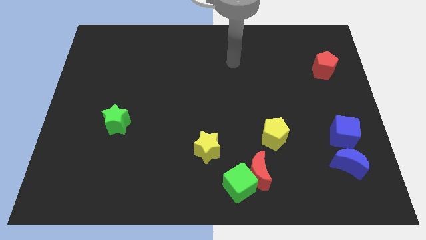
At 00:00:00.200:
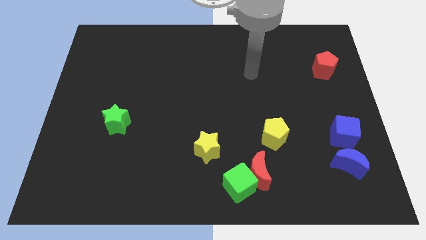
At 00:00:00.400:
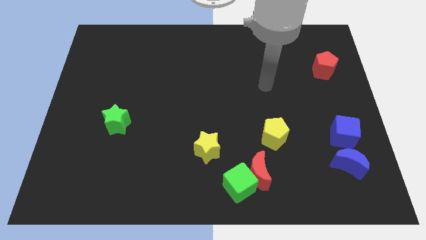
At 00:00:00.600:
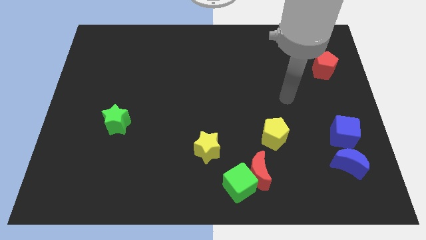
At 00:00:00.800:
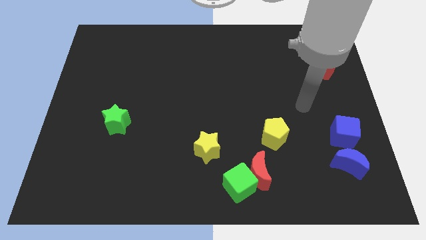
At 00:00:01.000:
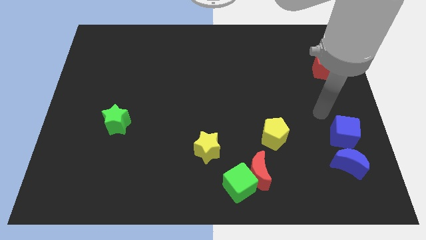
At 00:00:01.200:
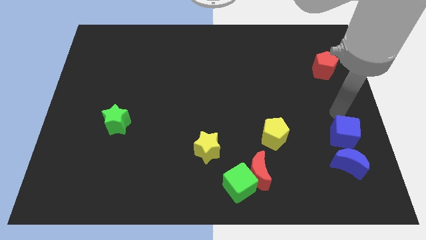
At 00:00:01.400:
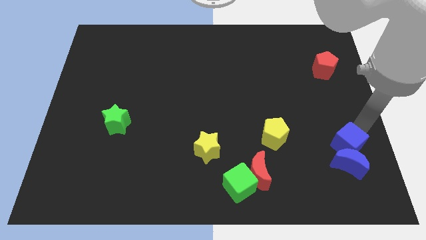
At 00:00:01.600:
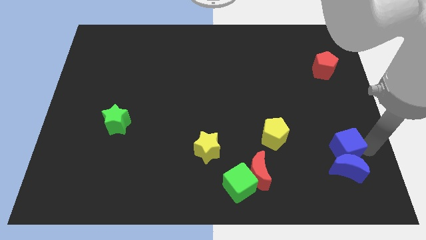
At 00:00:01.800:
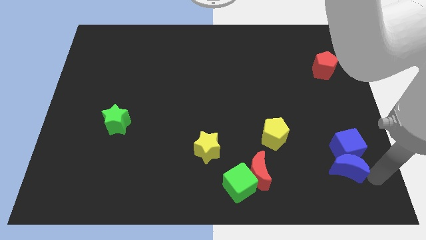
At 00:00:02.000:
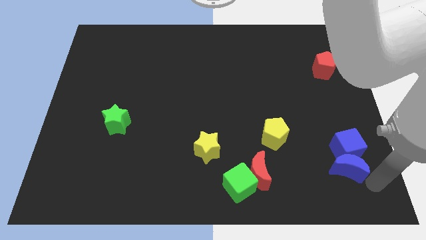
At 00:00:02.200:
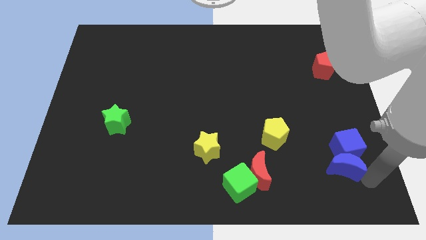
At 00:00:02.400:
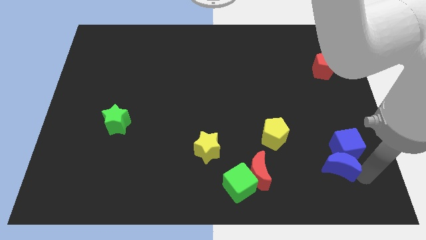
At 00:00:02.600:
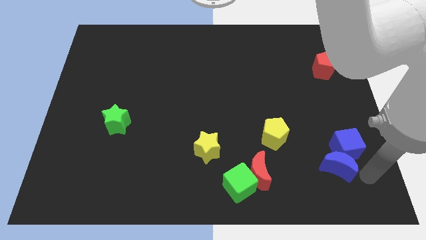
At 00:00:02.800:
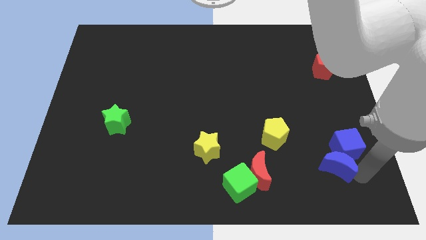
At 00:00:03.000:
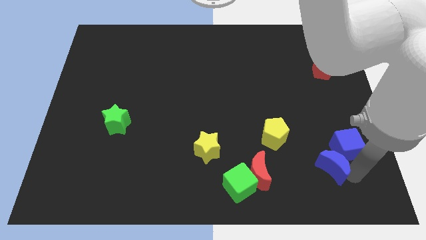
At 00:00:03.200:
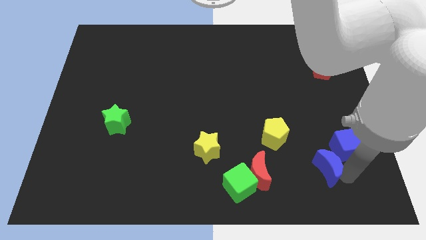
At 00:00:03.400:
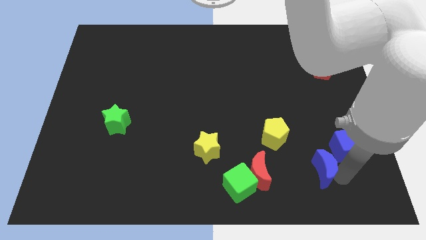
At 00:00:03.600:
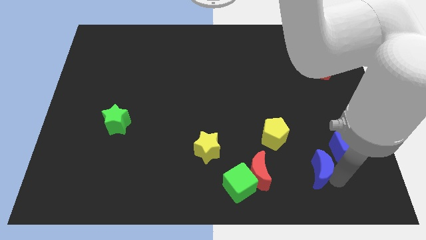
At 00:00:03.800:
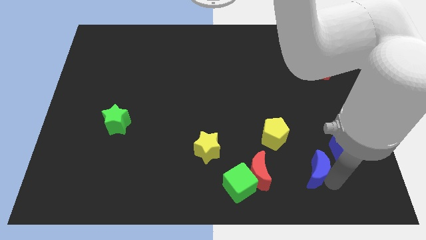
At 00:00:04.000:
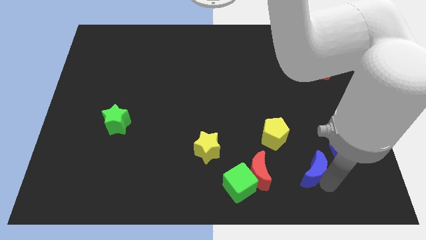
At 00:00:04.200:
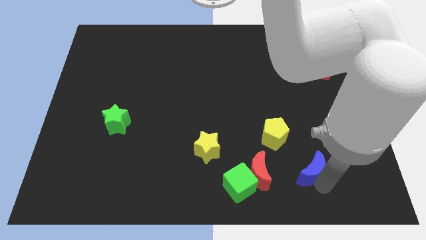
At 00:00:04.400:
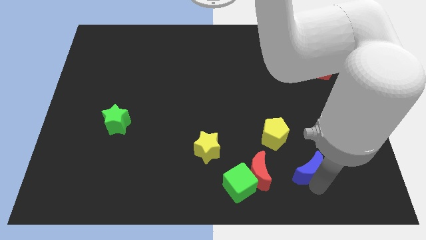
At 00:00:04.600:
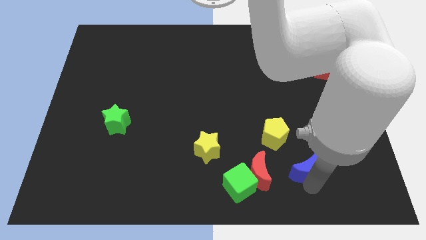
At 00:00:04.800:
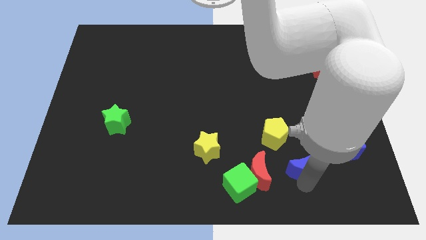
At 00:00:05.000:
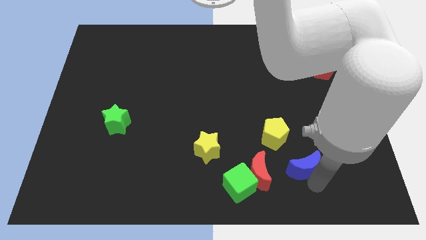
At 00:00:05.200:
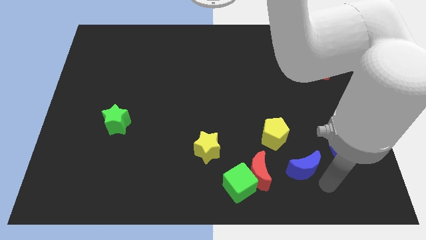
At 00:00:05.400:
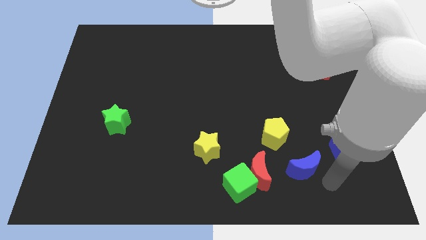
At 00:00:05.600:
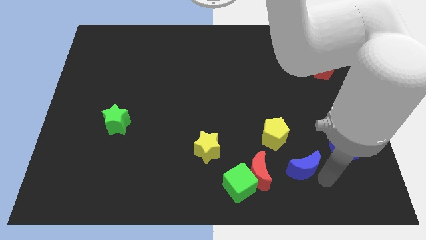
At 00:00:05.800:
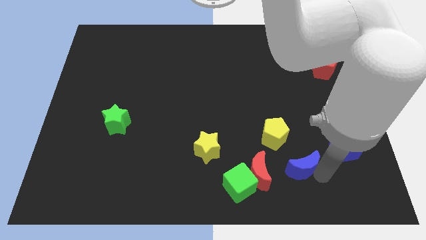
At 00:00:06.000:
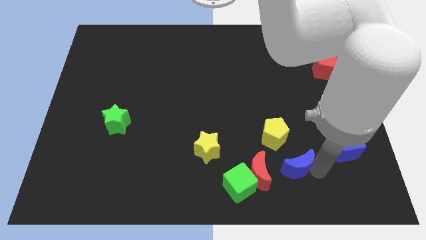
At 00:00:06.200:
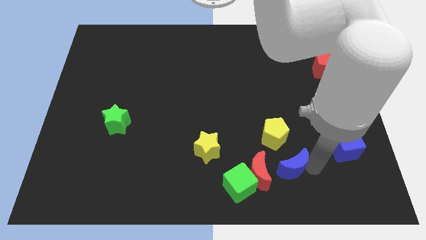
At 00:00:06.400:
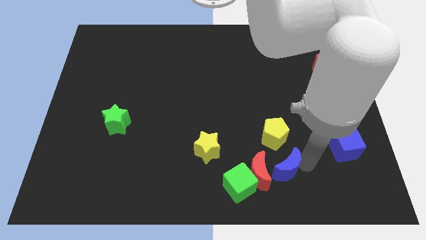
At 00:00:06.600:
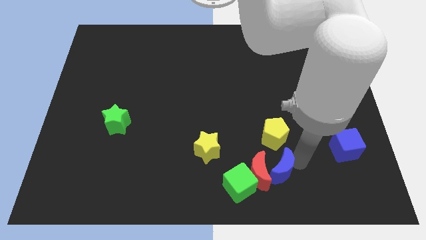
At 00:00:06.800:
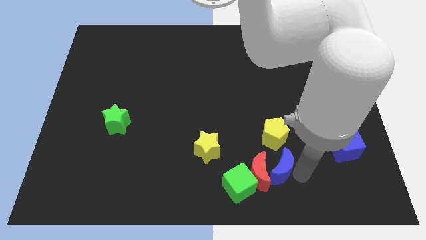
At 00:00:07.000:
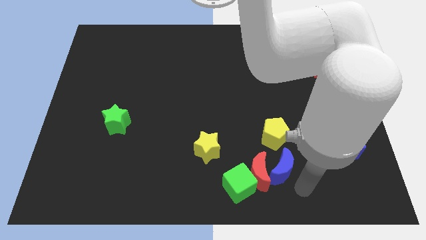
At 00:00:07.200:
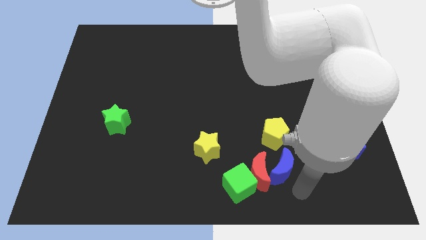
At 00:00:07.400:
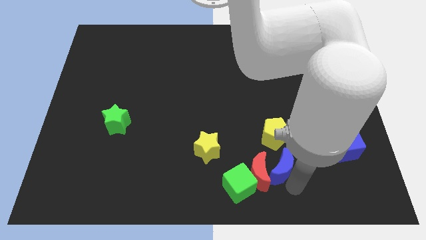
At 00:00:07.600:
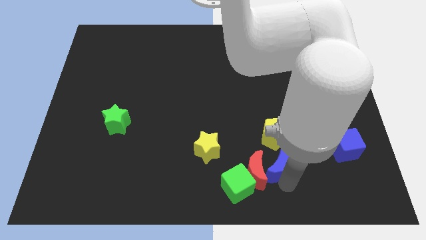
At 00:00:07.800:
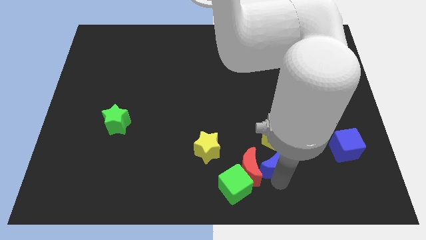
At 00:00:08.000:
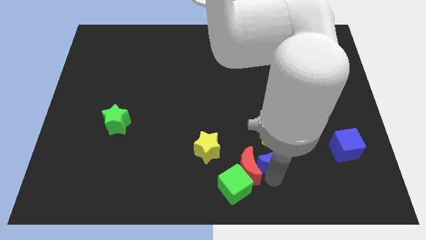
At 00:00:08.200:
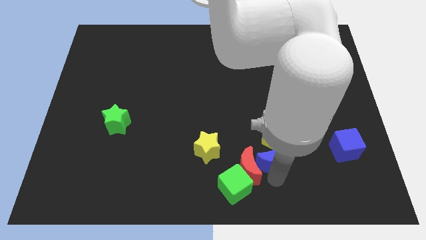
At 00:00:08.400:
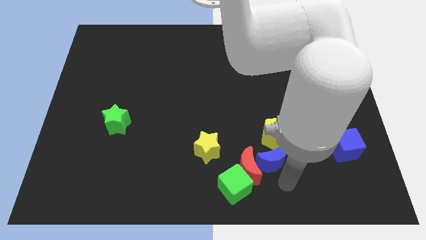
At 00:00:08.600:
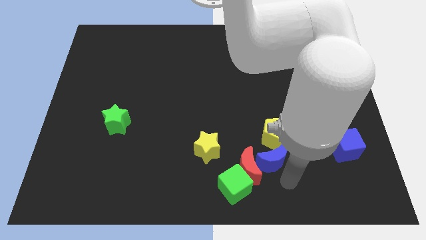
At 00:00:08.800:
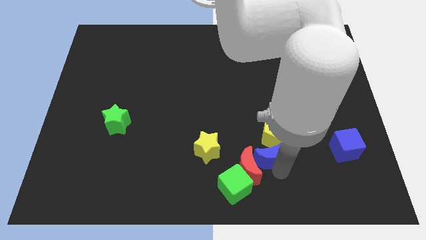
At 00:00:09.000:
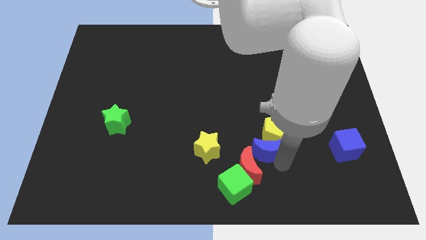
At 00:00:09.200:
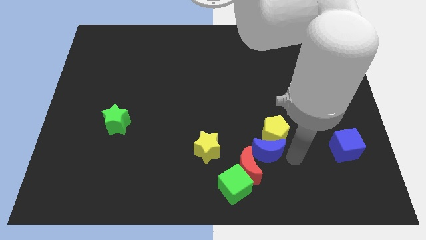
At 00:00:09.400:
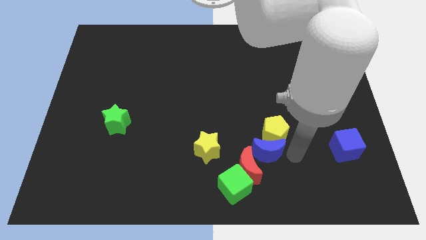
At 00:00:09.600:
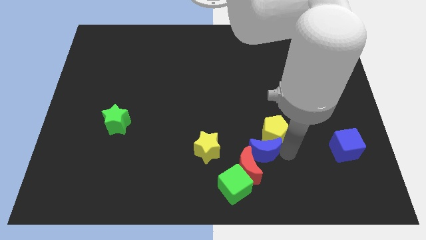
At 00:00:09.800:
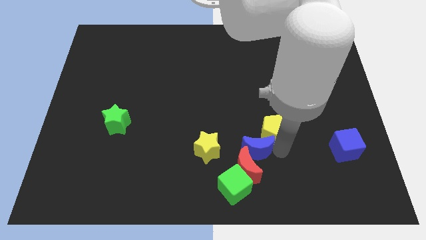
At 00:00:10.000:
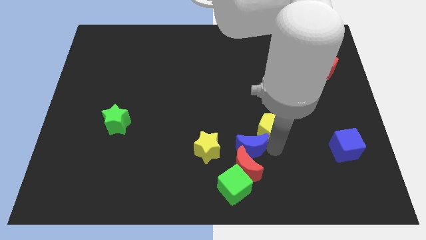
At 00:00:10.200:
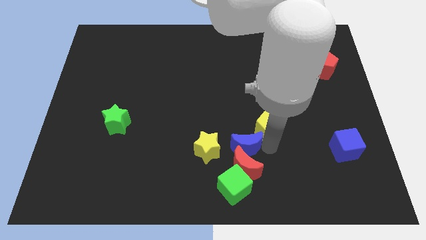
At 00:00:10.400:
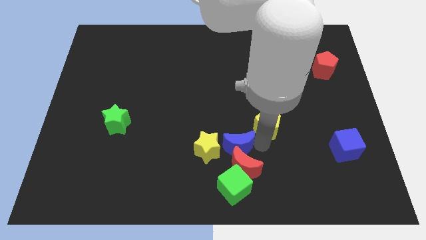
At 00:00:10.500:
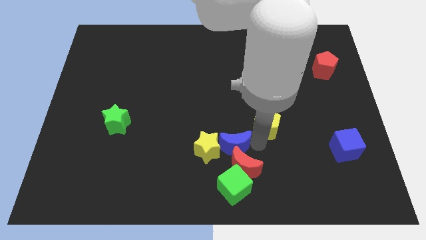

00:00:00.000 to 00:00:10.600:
move the blue moon next to the yellow star

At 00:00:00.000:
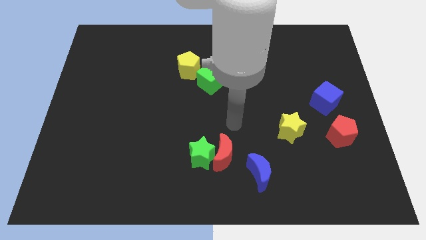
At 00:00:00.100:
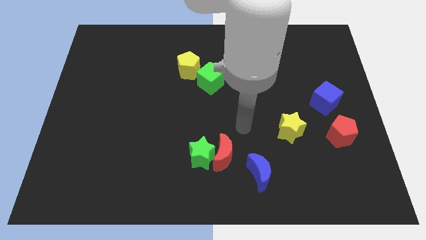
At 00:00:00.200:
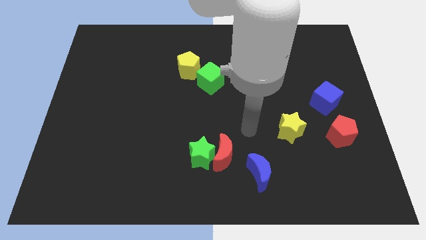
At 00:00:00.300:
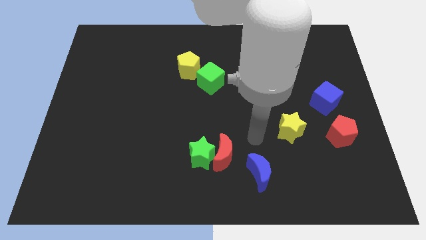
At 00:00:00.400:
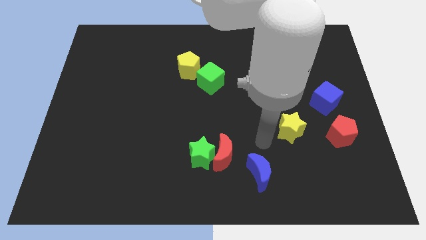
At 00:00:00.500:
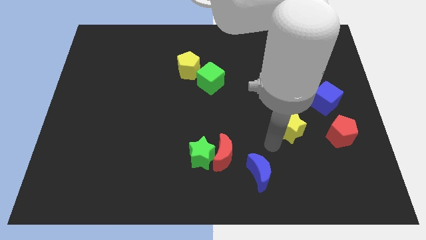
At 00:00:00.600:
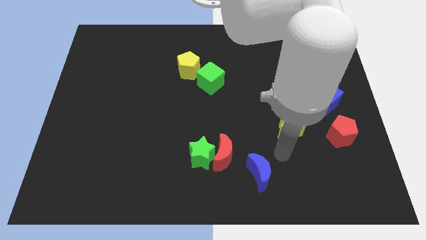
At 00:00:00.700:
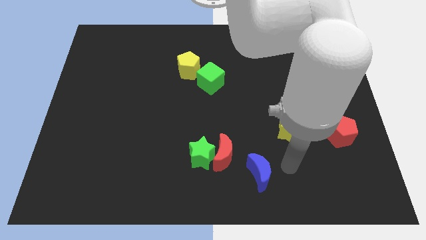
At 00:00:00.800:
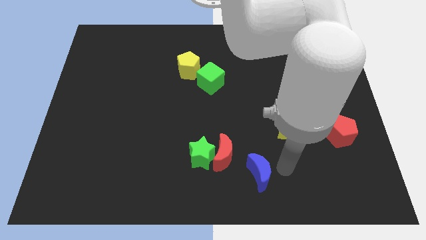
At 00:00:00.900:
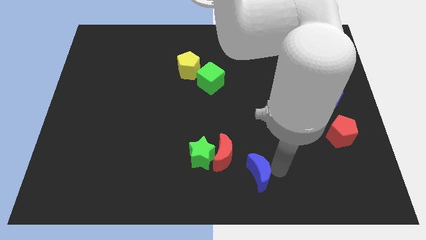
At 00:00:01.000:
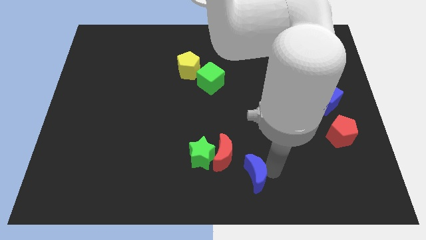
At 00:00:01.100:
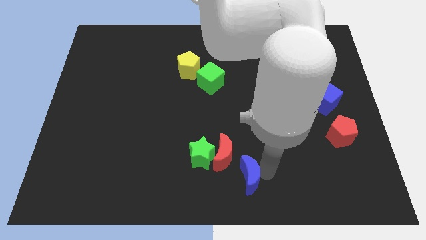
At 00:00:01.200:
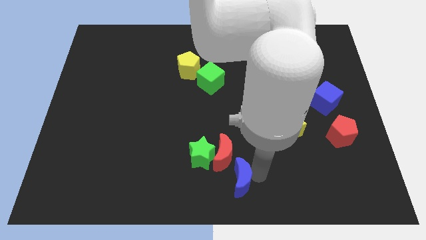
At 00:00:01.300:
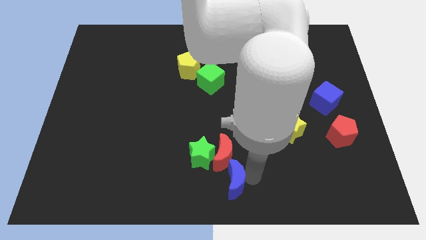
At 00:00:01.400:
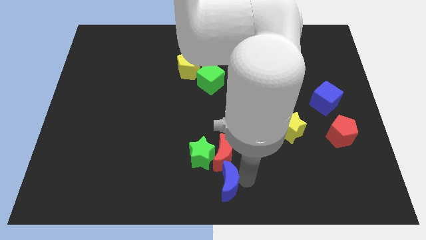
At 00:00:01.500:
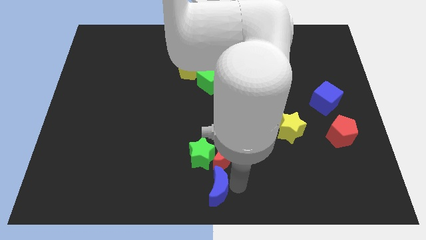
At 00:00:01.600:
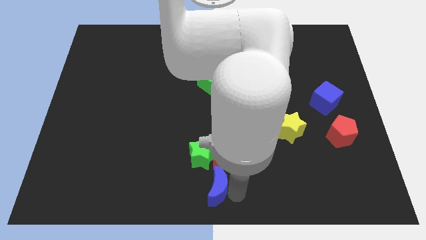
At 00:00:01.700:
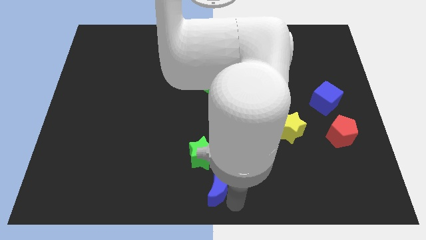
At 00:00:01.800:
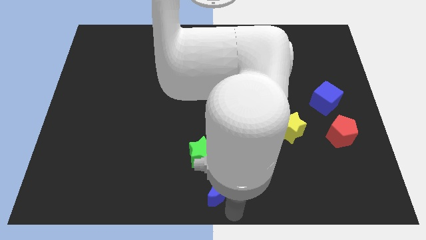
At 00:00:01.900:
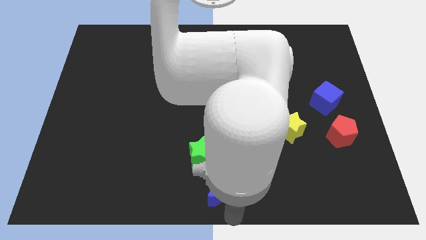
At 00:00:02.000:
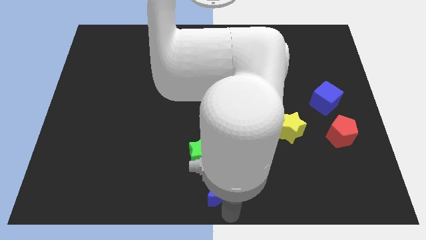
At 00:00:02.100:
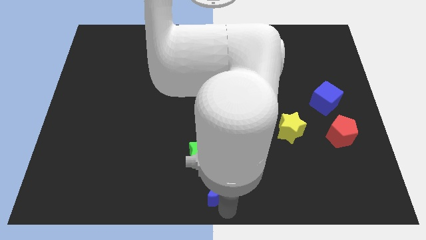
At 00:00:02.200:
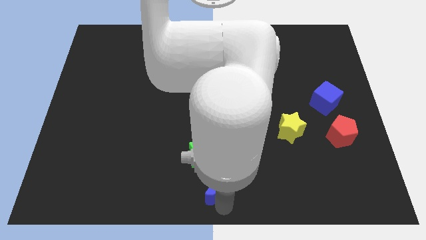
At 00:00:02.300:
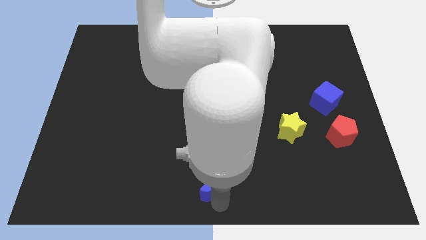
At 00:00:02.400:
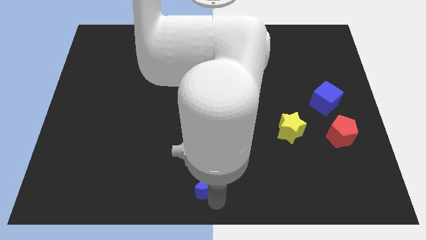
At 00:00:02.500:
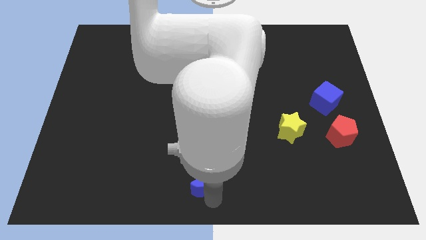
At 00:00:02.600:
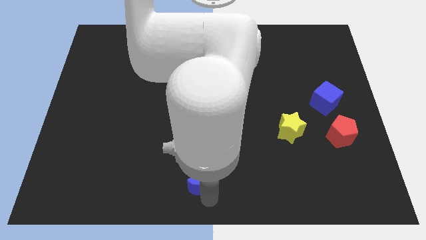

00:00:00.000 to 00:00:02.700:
put the blue moon towards the green star
